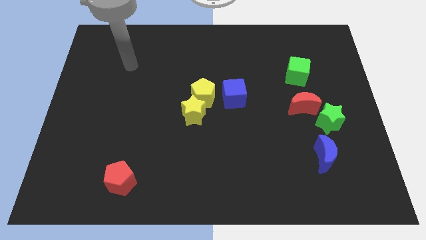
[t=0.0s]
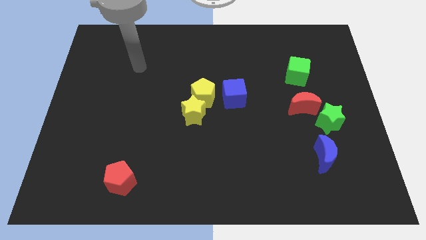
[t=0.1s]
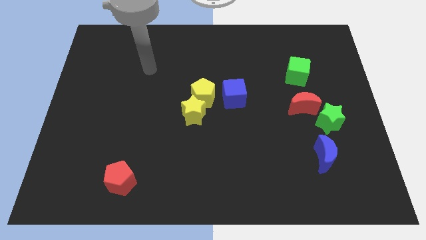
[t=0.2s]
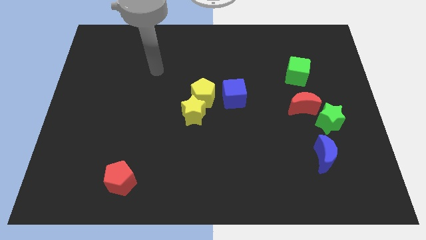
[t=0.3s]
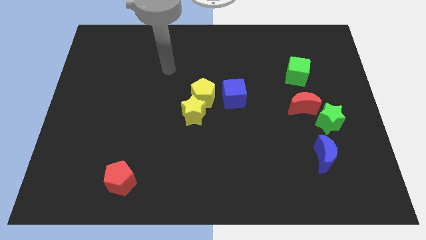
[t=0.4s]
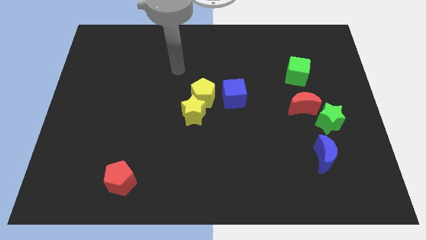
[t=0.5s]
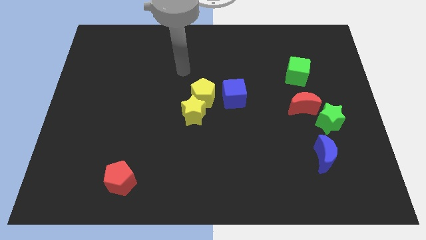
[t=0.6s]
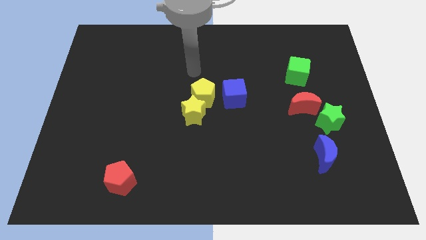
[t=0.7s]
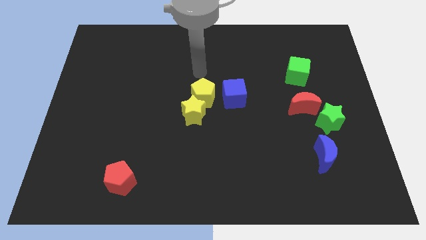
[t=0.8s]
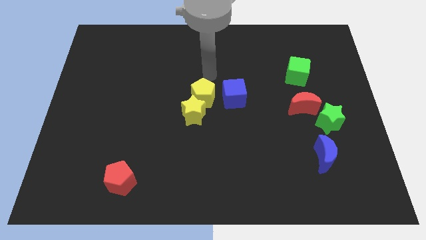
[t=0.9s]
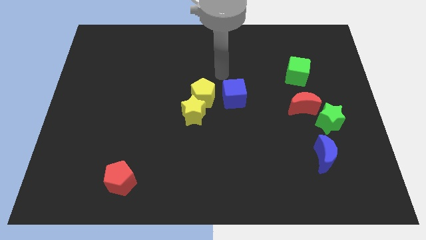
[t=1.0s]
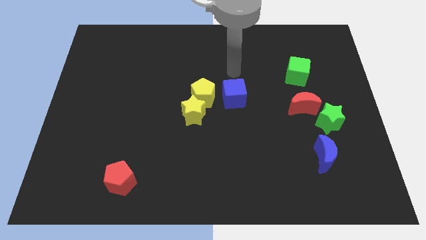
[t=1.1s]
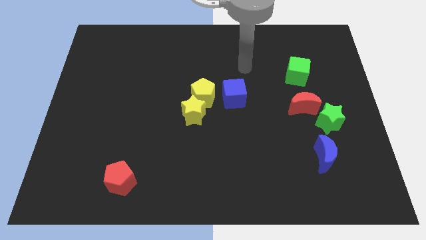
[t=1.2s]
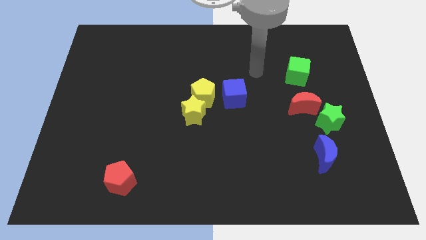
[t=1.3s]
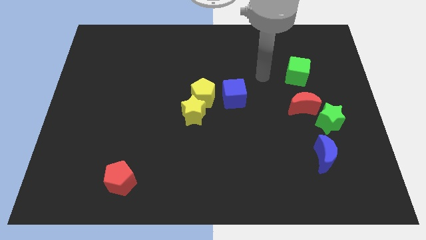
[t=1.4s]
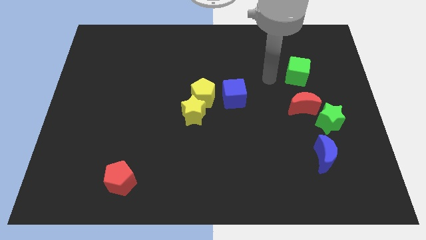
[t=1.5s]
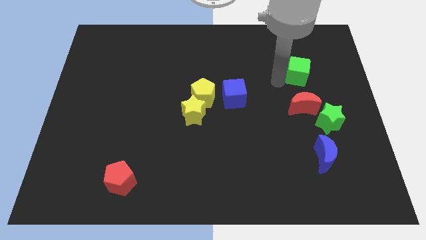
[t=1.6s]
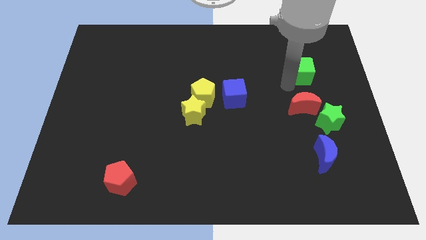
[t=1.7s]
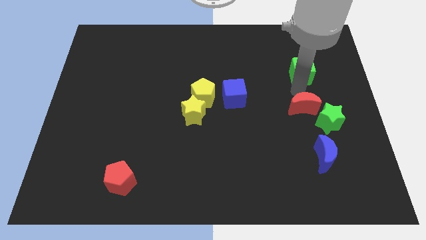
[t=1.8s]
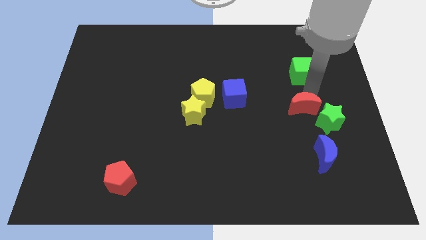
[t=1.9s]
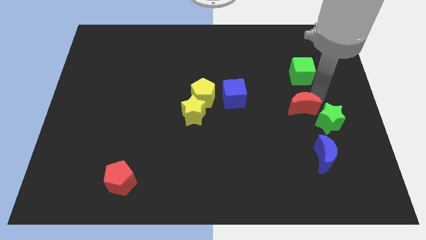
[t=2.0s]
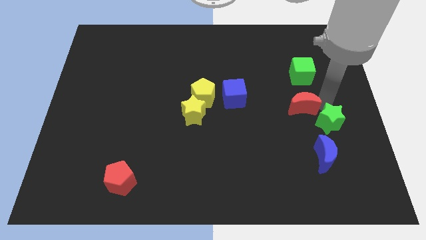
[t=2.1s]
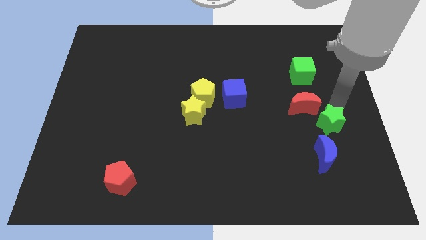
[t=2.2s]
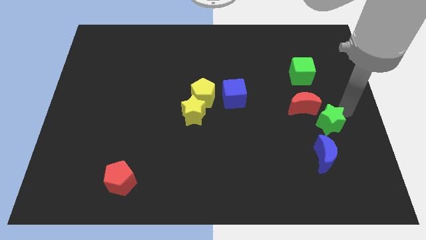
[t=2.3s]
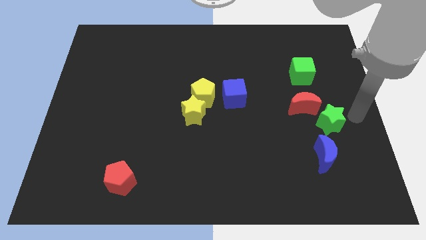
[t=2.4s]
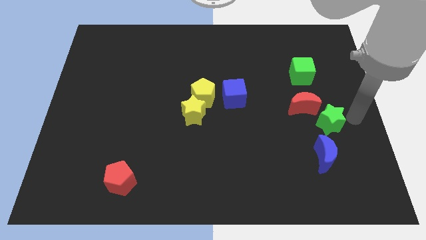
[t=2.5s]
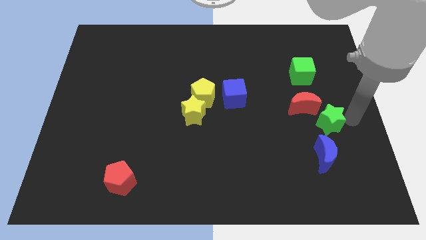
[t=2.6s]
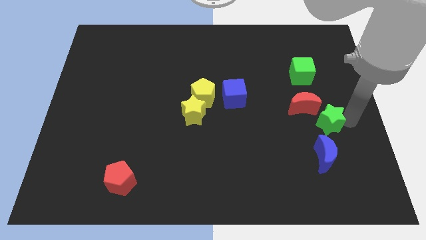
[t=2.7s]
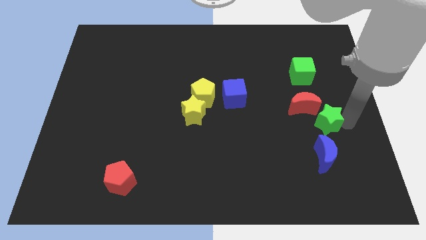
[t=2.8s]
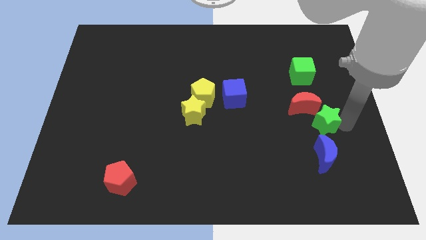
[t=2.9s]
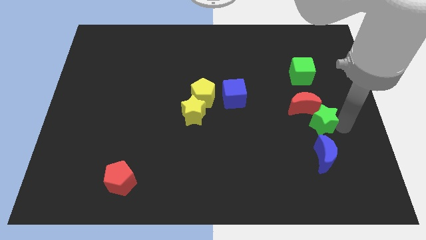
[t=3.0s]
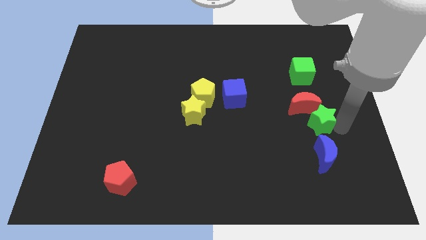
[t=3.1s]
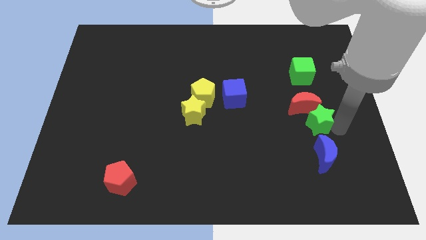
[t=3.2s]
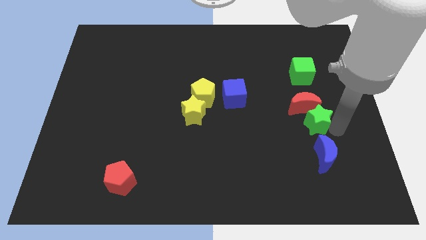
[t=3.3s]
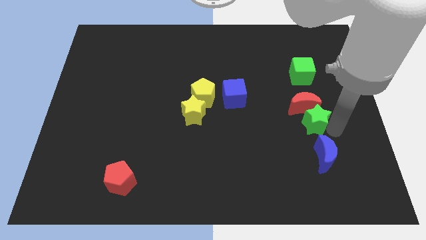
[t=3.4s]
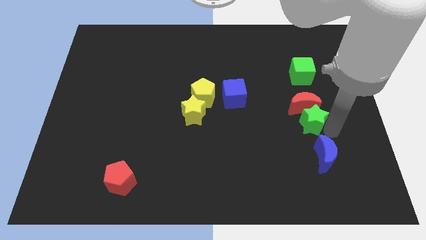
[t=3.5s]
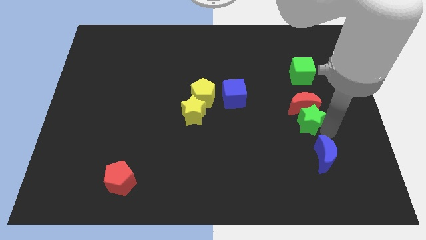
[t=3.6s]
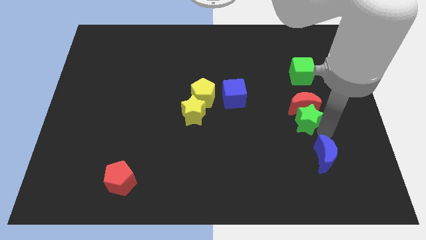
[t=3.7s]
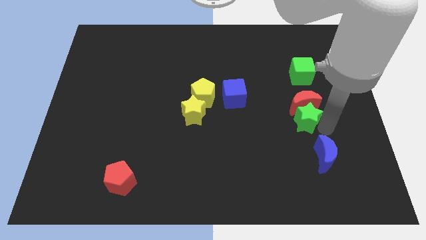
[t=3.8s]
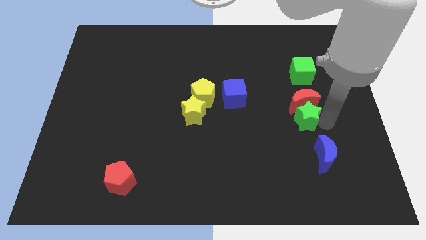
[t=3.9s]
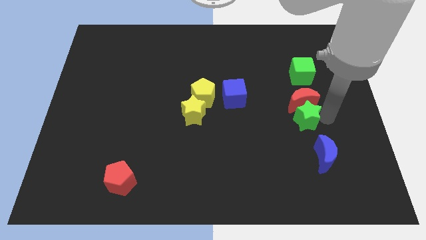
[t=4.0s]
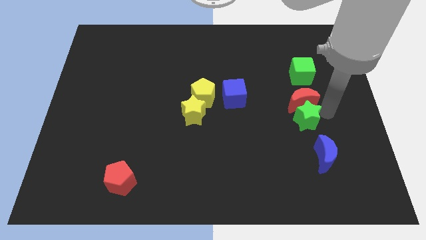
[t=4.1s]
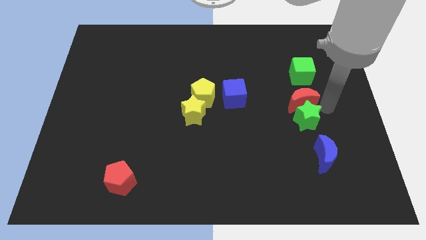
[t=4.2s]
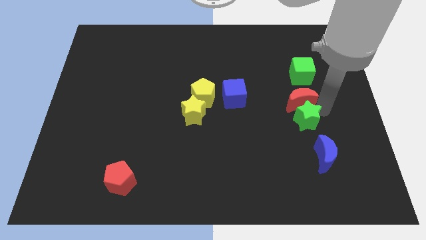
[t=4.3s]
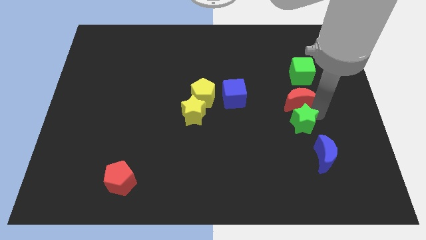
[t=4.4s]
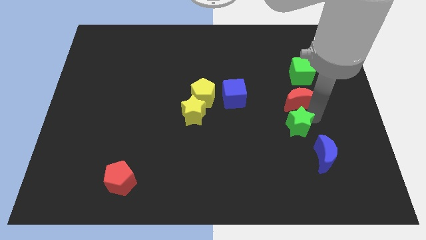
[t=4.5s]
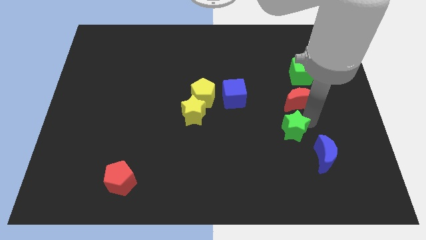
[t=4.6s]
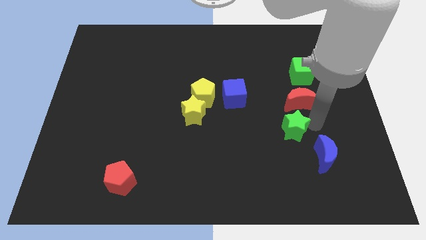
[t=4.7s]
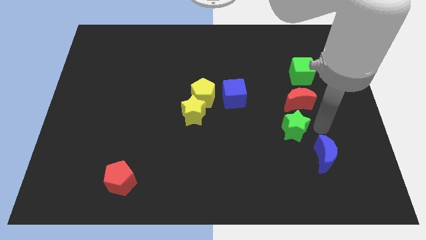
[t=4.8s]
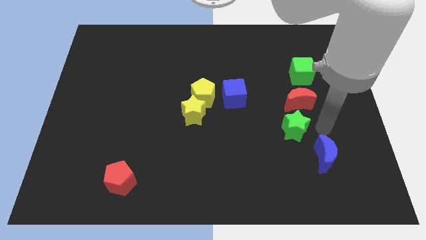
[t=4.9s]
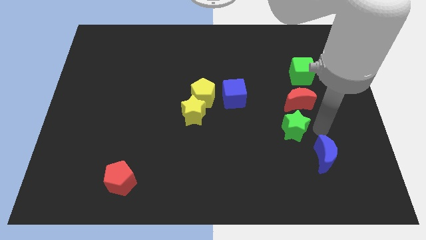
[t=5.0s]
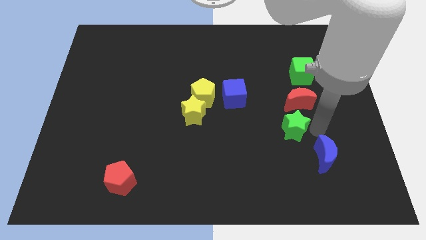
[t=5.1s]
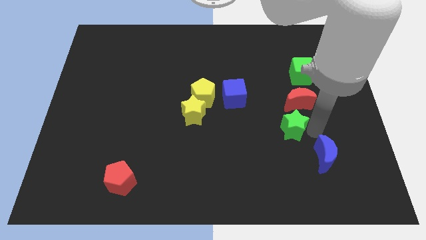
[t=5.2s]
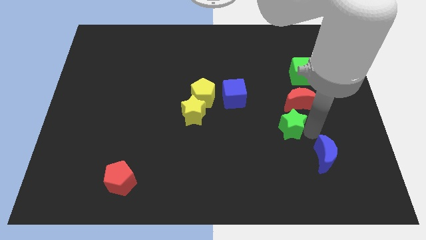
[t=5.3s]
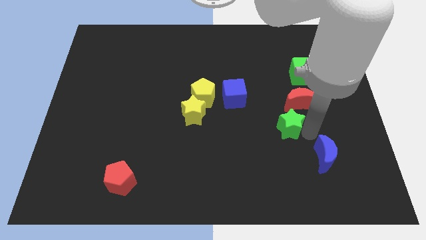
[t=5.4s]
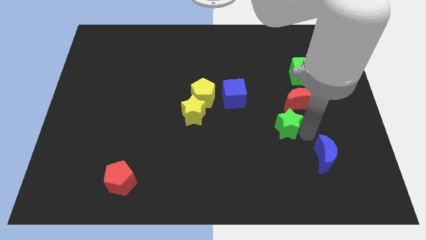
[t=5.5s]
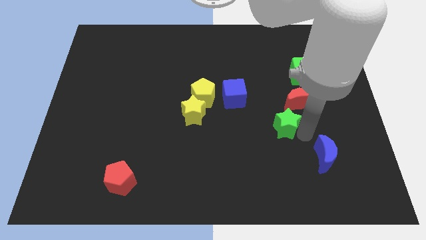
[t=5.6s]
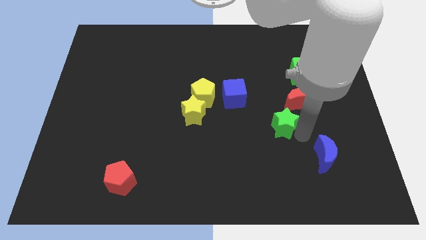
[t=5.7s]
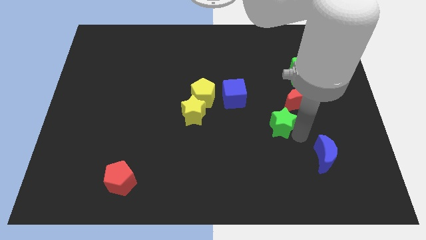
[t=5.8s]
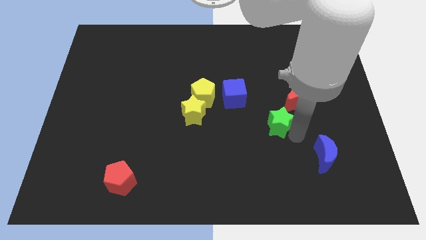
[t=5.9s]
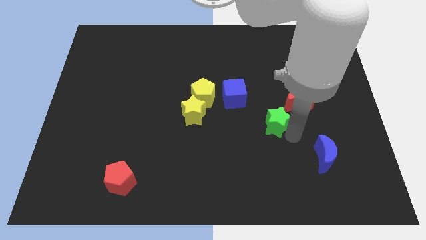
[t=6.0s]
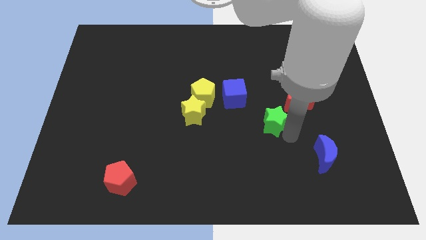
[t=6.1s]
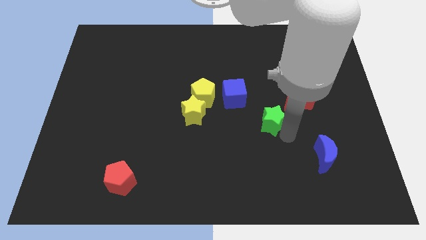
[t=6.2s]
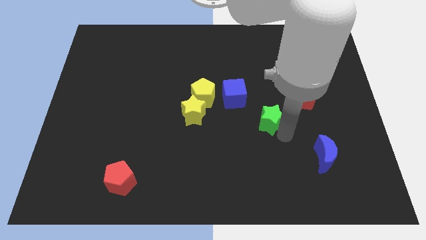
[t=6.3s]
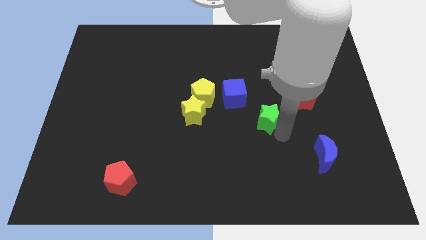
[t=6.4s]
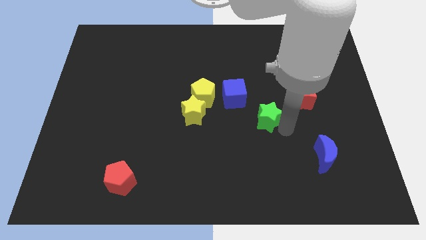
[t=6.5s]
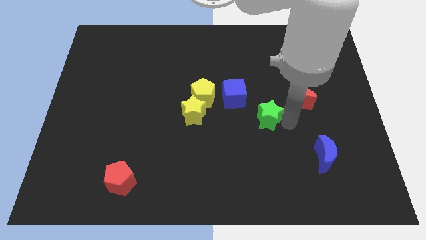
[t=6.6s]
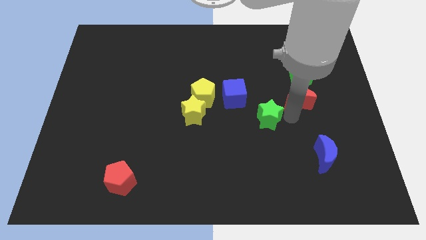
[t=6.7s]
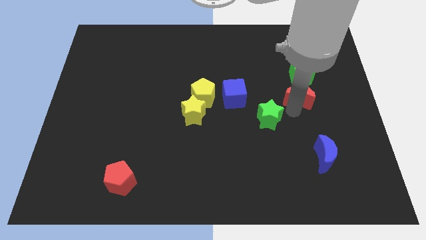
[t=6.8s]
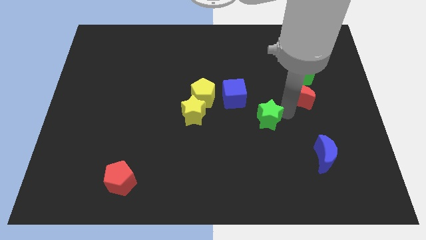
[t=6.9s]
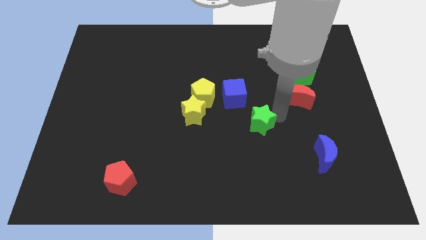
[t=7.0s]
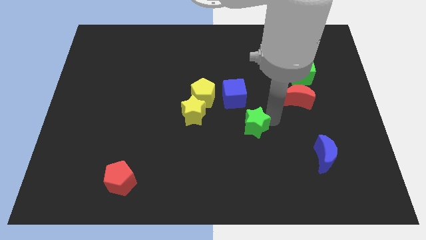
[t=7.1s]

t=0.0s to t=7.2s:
push the green star to the bottom of the blue cube

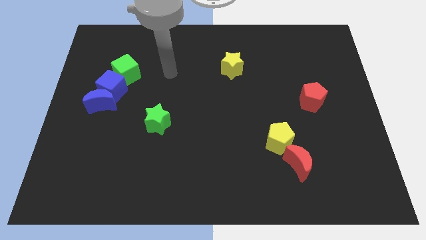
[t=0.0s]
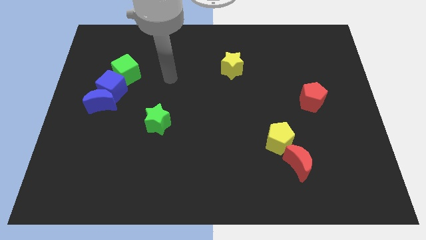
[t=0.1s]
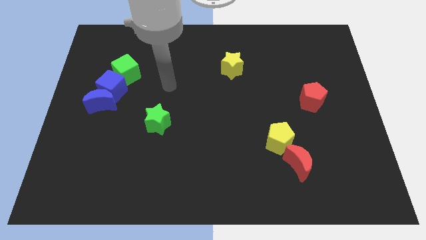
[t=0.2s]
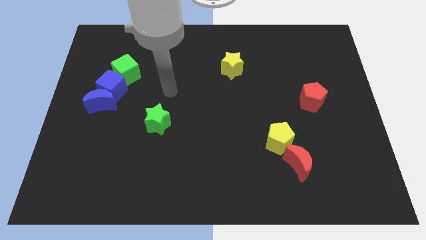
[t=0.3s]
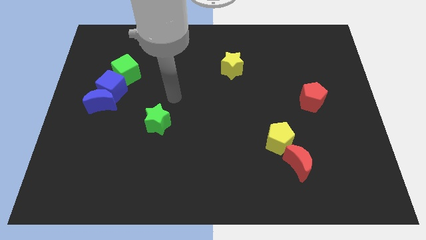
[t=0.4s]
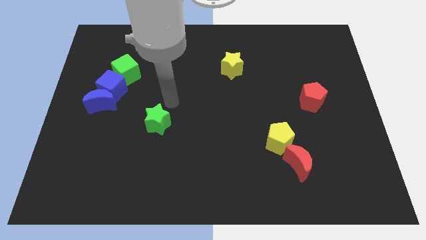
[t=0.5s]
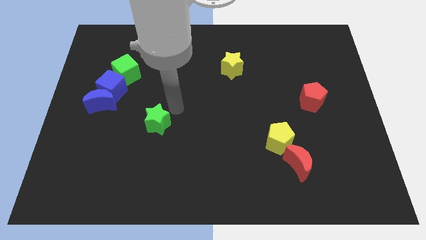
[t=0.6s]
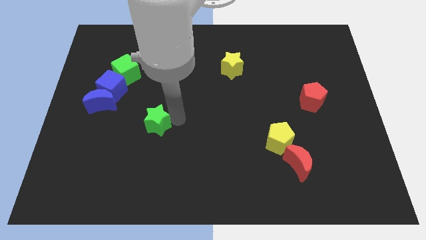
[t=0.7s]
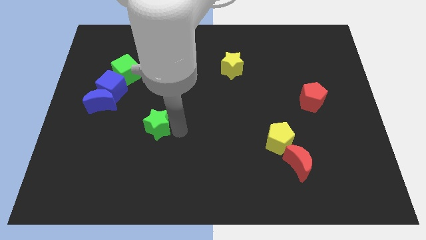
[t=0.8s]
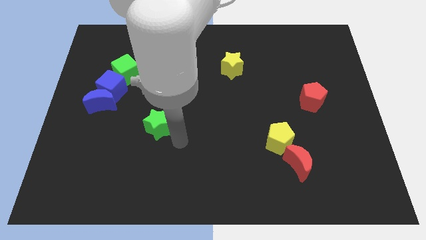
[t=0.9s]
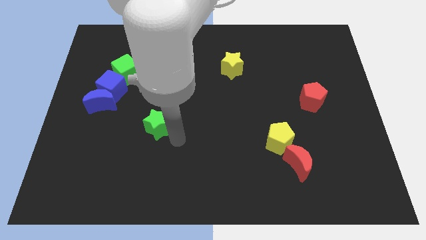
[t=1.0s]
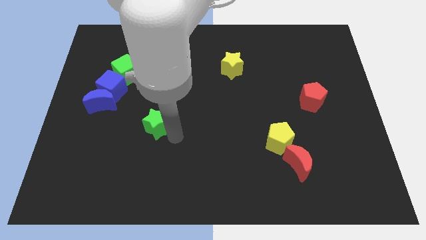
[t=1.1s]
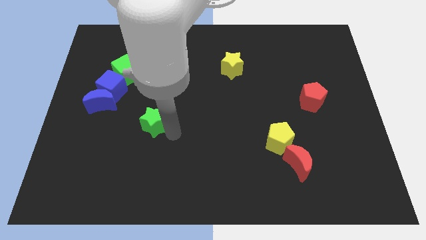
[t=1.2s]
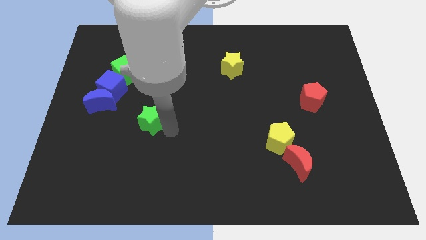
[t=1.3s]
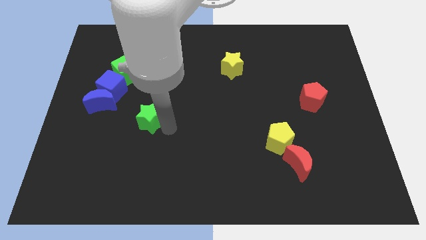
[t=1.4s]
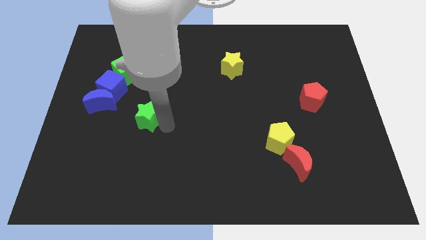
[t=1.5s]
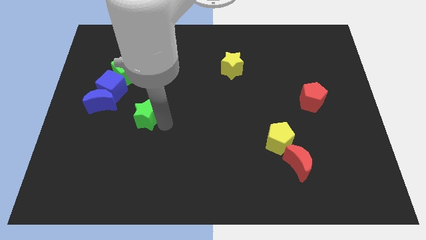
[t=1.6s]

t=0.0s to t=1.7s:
slide the green star to the bottom right side of the blue cube
